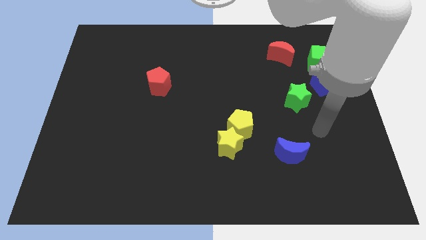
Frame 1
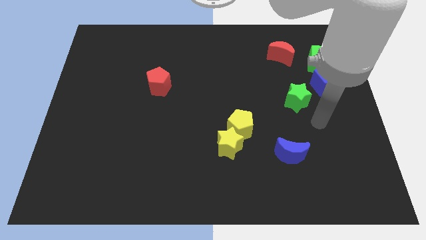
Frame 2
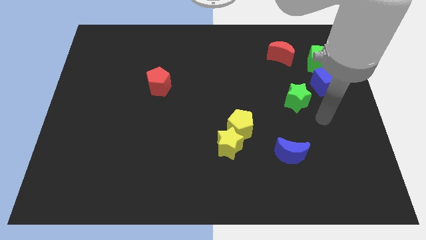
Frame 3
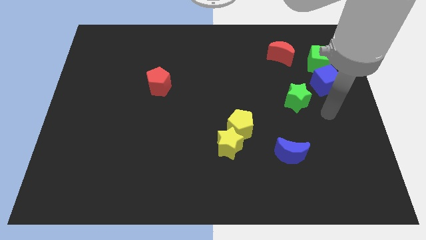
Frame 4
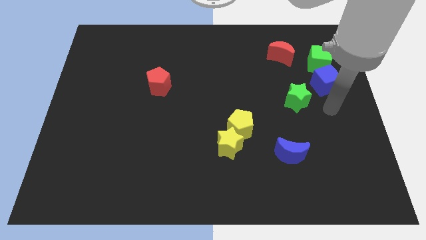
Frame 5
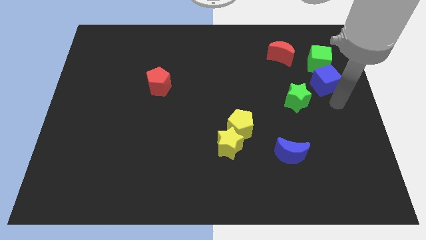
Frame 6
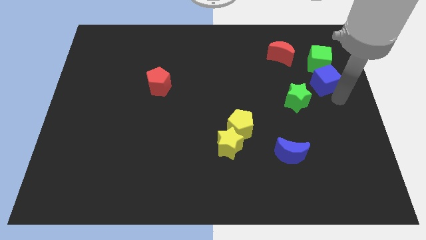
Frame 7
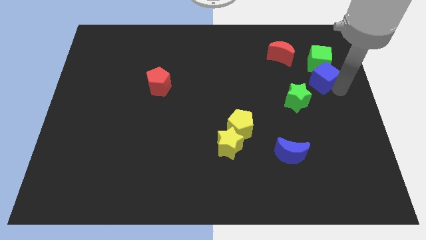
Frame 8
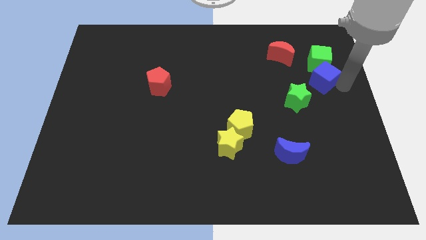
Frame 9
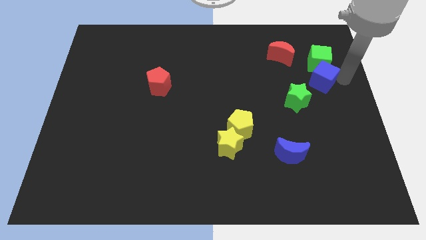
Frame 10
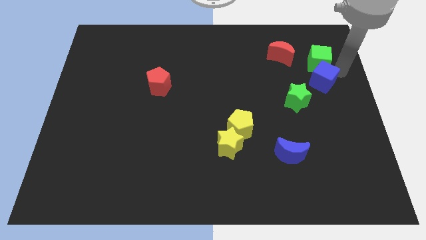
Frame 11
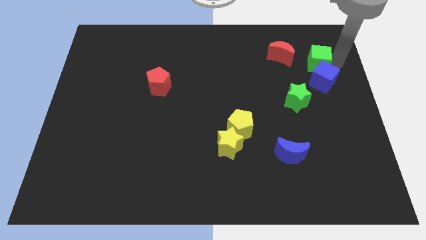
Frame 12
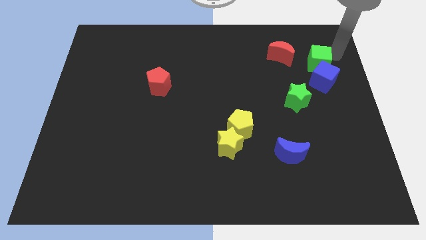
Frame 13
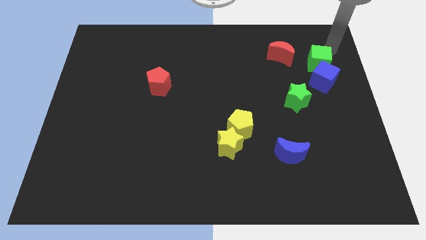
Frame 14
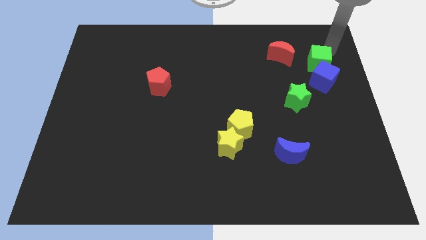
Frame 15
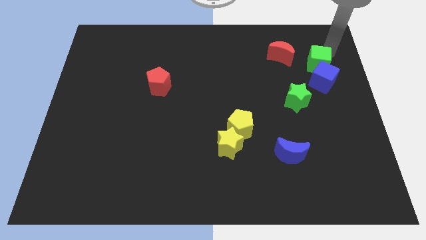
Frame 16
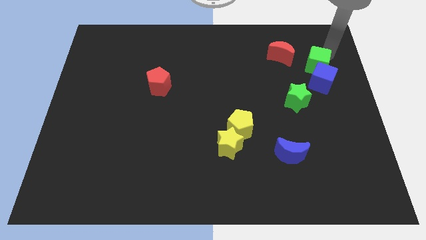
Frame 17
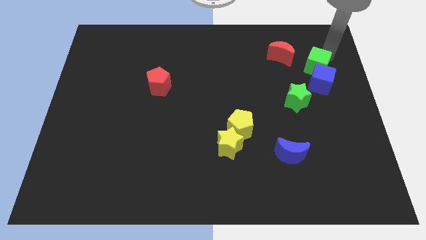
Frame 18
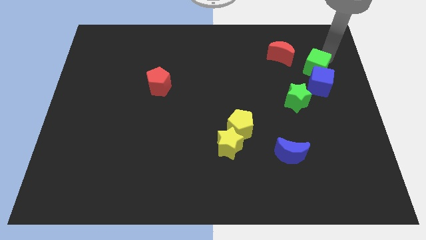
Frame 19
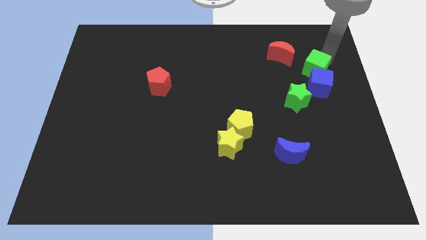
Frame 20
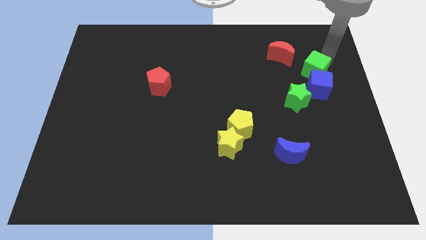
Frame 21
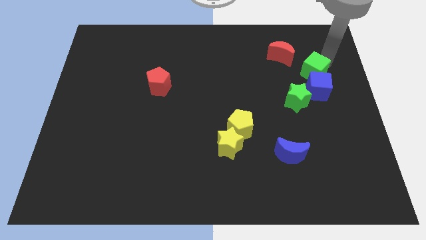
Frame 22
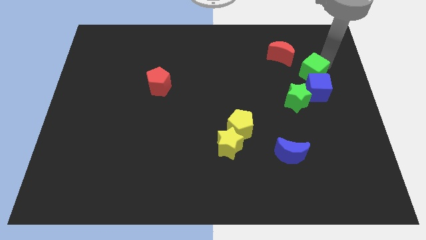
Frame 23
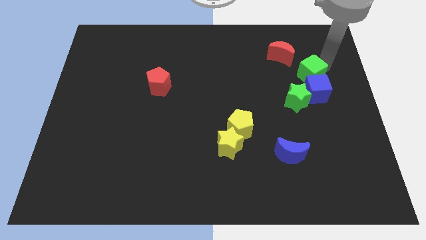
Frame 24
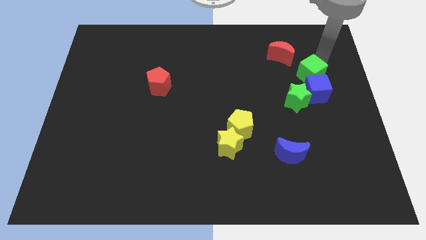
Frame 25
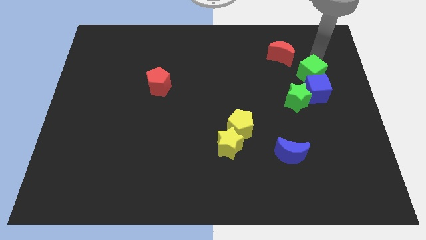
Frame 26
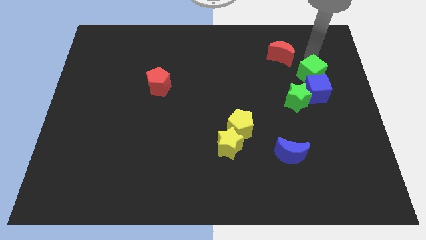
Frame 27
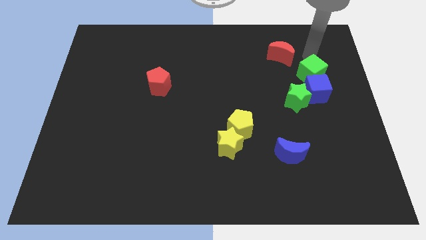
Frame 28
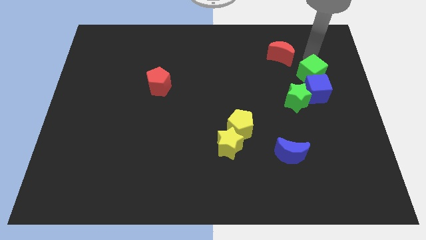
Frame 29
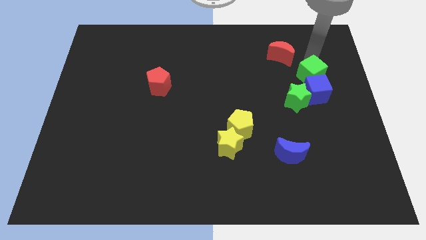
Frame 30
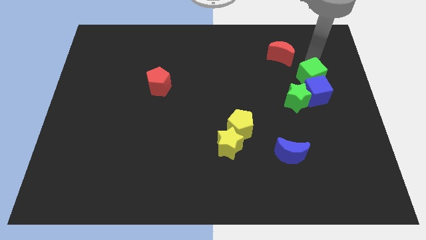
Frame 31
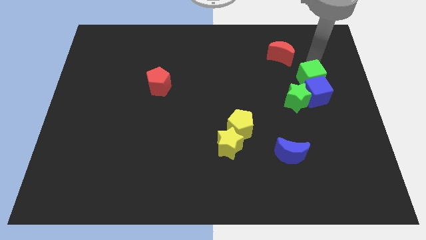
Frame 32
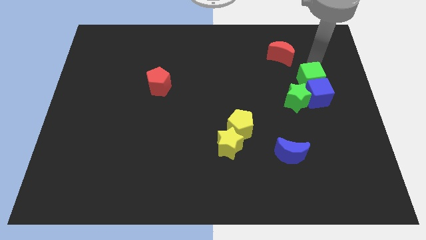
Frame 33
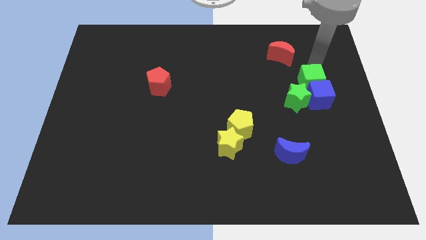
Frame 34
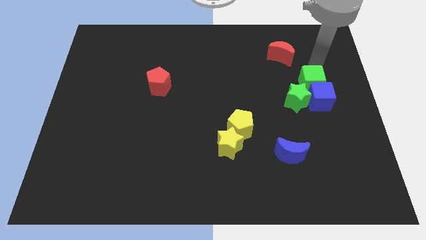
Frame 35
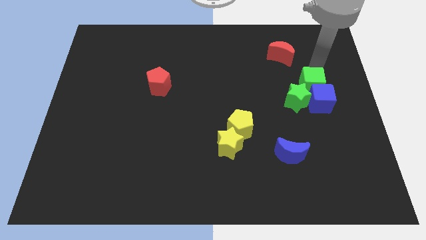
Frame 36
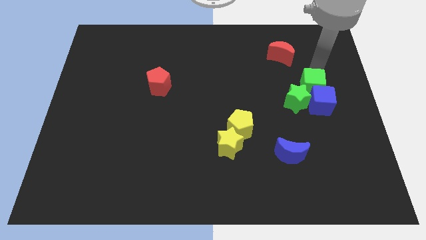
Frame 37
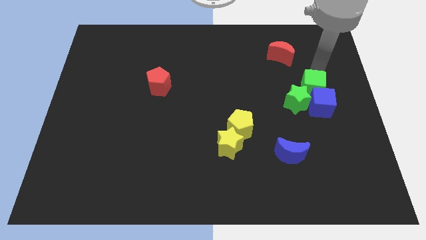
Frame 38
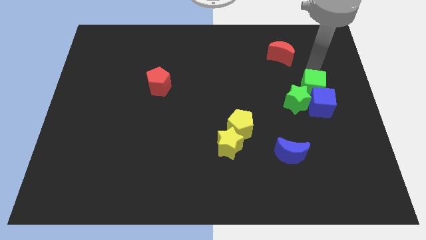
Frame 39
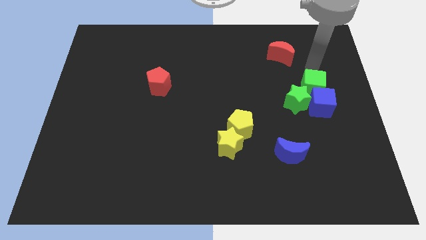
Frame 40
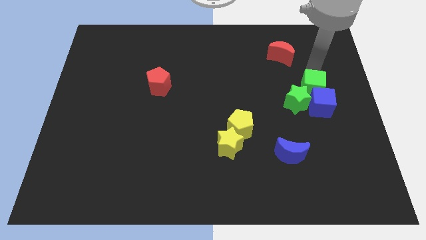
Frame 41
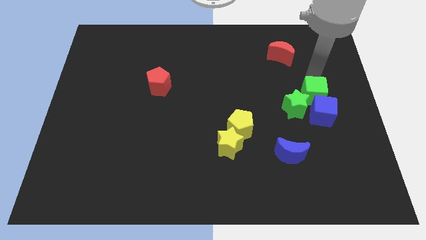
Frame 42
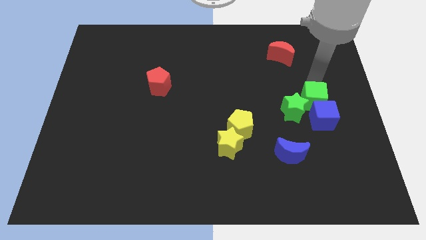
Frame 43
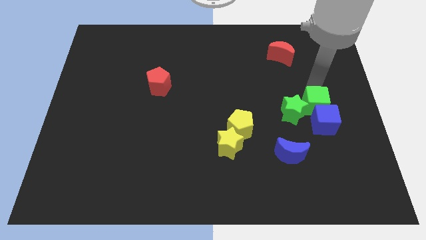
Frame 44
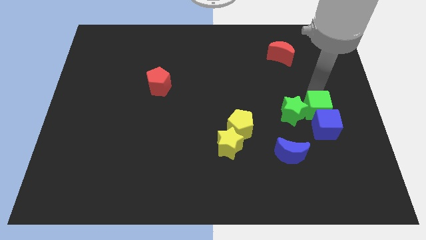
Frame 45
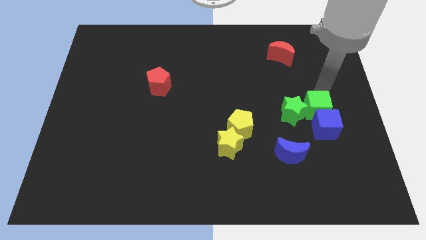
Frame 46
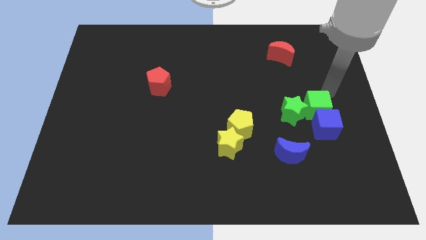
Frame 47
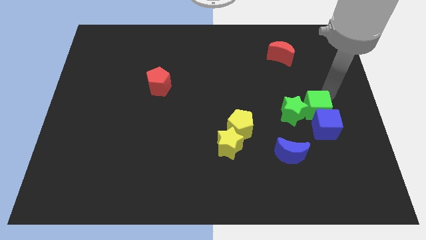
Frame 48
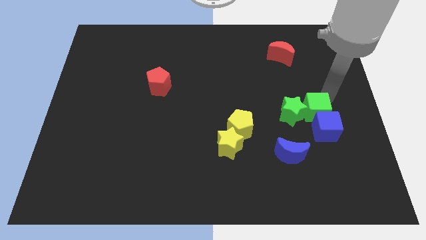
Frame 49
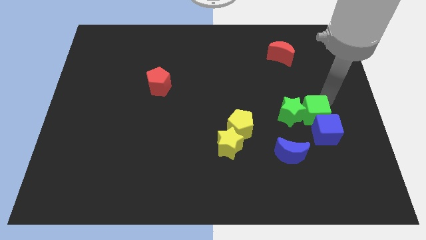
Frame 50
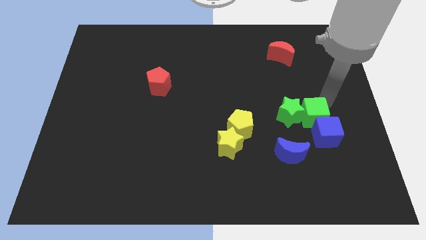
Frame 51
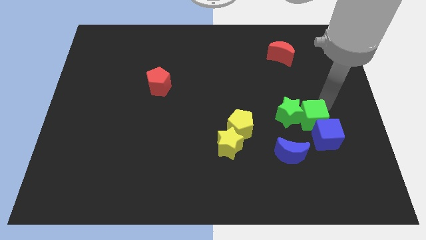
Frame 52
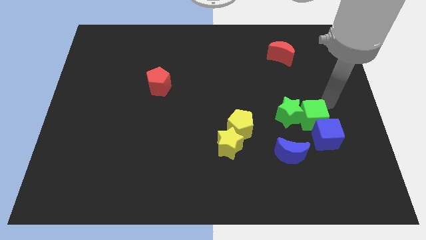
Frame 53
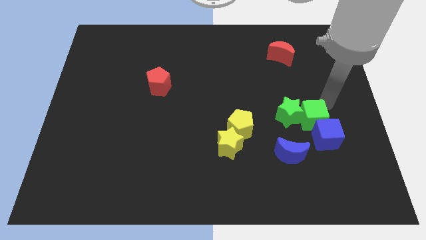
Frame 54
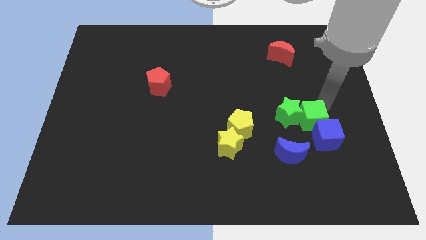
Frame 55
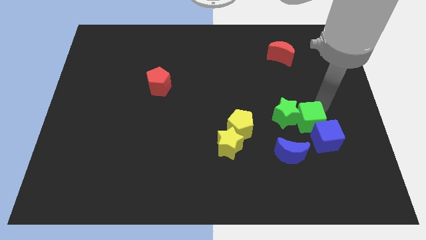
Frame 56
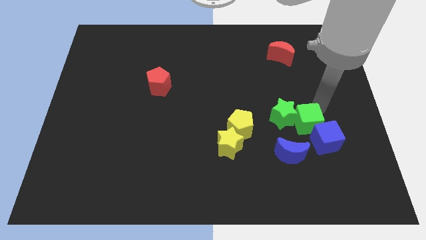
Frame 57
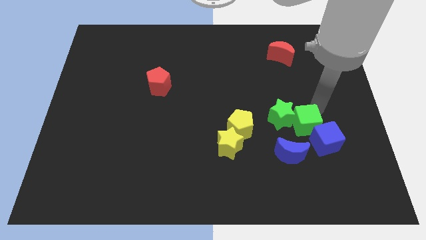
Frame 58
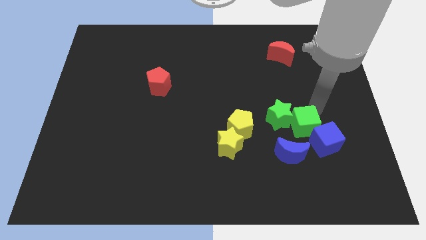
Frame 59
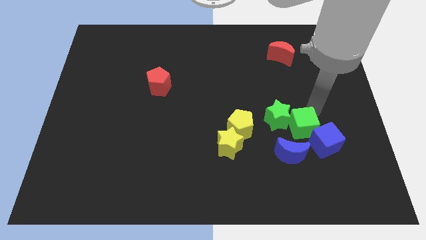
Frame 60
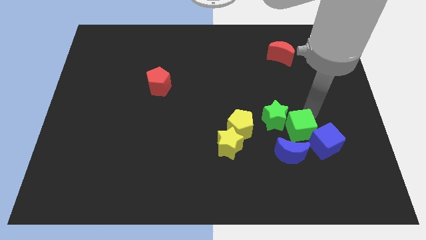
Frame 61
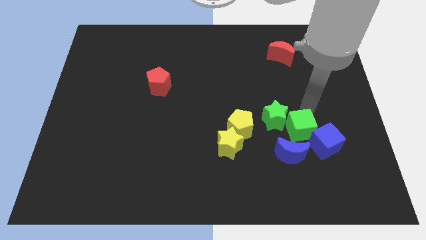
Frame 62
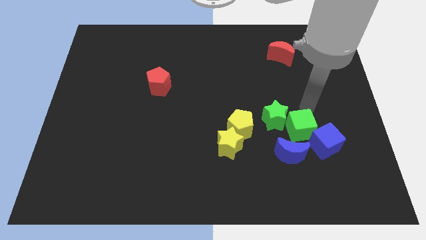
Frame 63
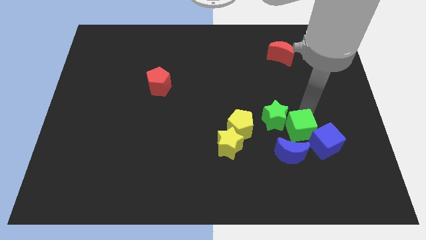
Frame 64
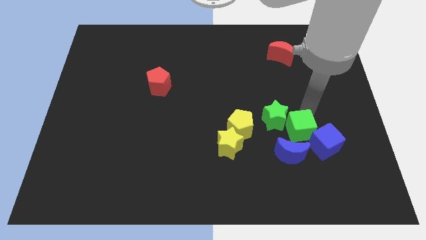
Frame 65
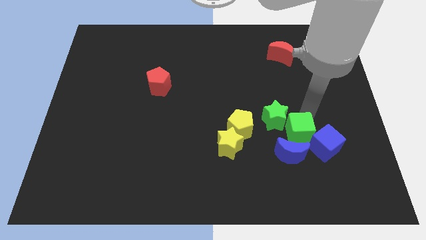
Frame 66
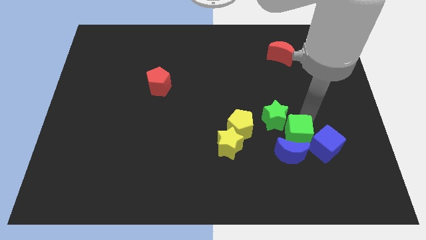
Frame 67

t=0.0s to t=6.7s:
slide the green cube close to the blue moon
